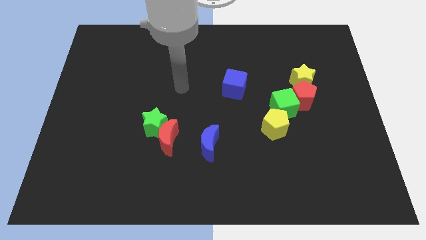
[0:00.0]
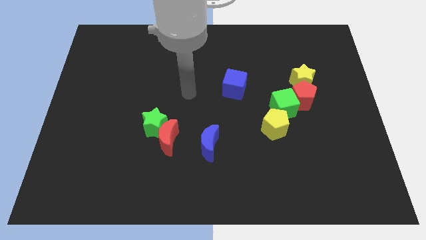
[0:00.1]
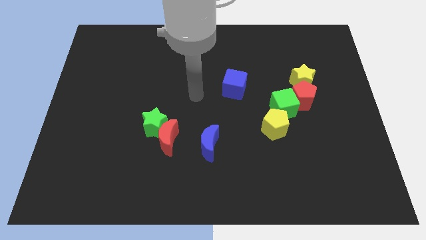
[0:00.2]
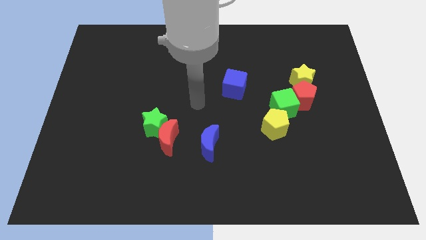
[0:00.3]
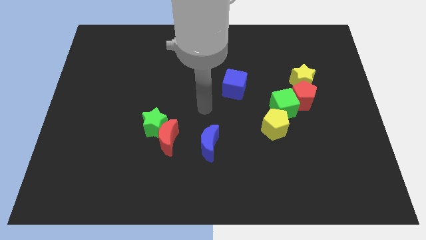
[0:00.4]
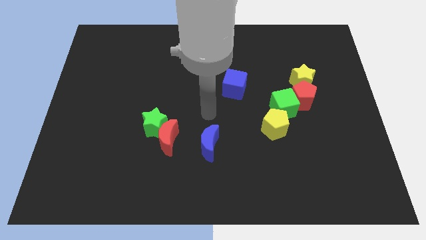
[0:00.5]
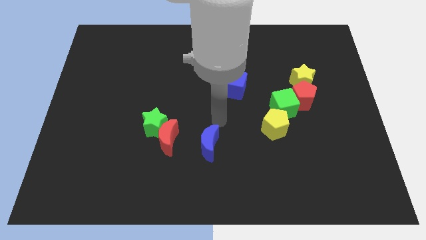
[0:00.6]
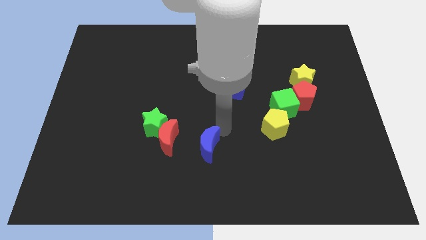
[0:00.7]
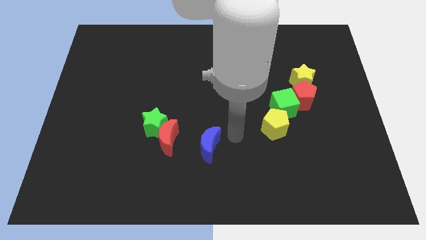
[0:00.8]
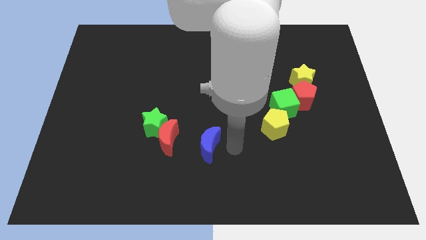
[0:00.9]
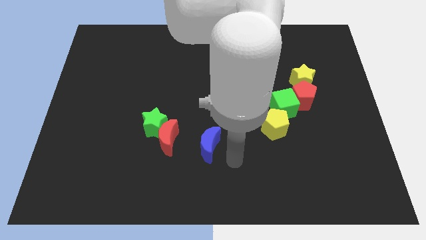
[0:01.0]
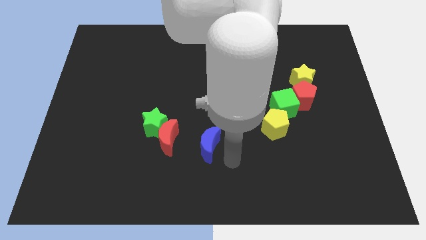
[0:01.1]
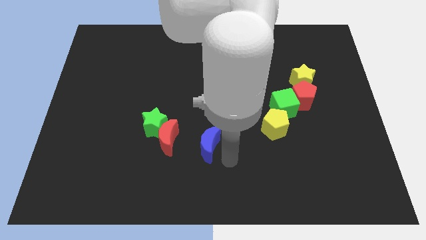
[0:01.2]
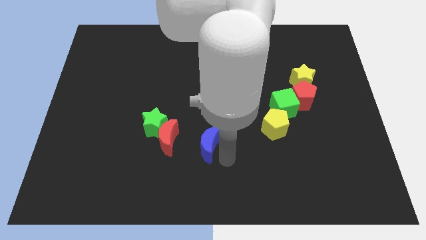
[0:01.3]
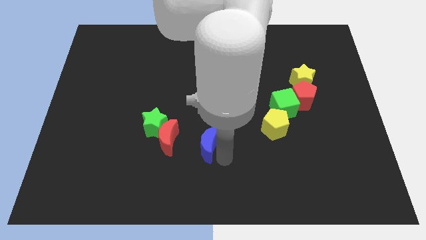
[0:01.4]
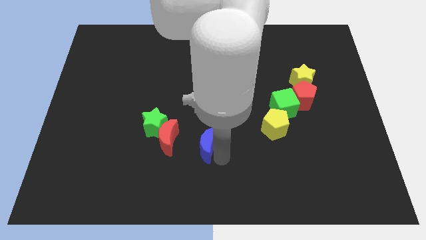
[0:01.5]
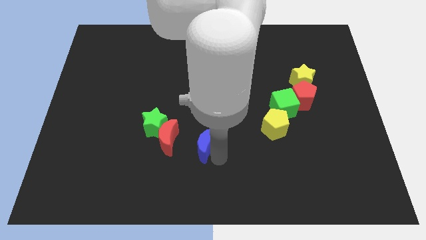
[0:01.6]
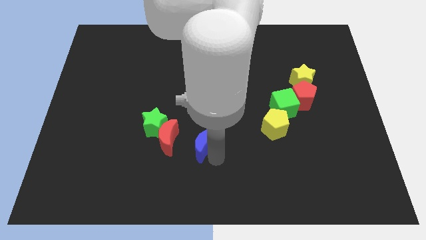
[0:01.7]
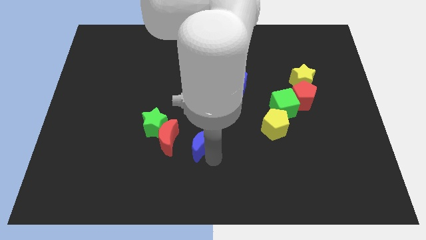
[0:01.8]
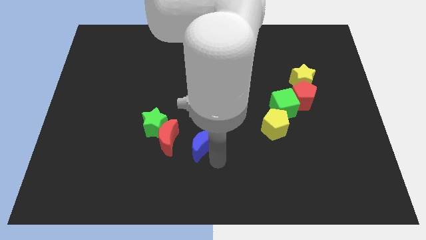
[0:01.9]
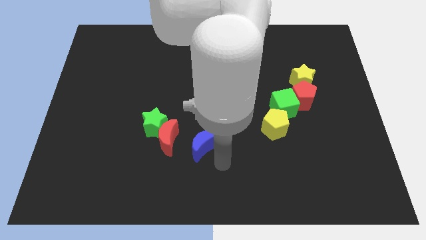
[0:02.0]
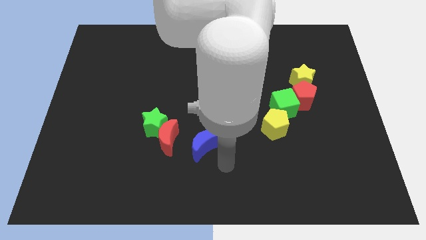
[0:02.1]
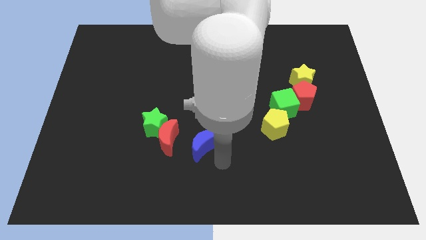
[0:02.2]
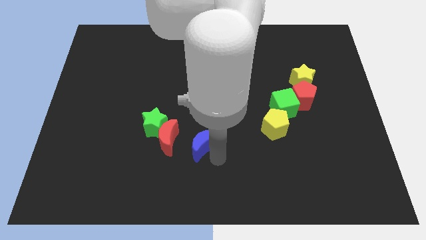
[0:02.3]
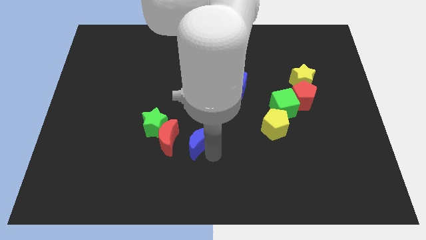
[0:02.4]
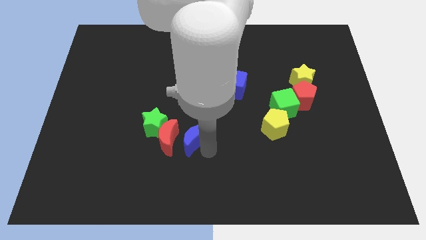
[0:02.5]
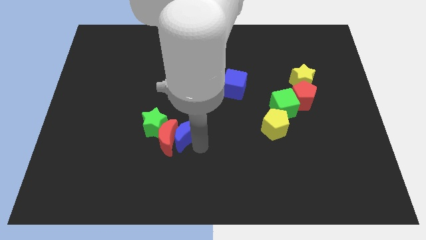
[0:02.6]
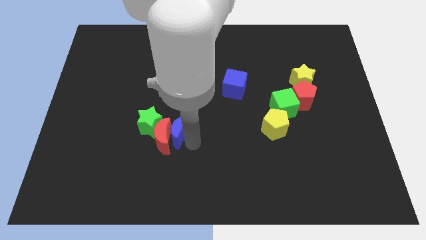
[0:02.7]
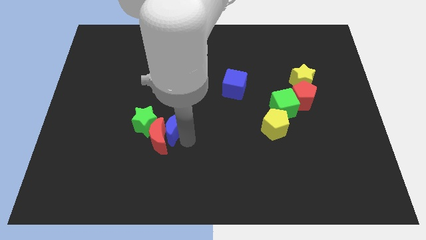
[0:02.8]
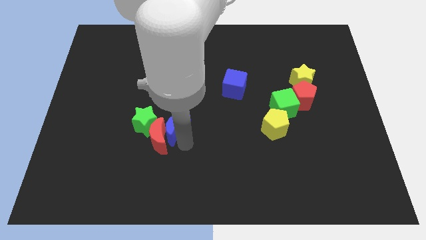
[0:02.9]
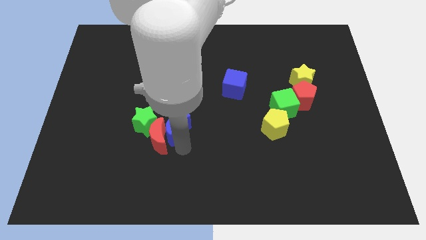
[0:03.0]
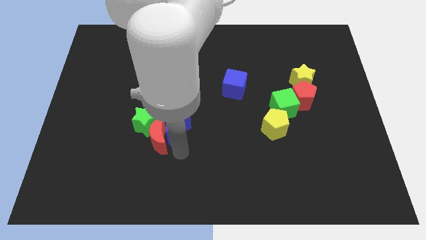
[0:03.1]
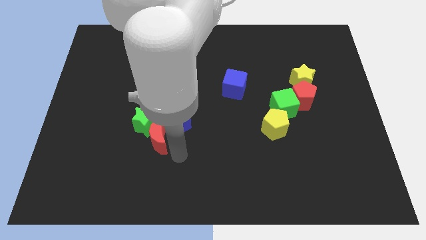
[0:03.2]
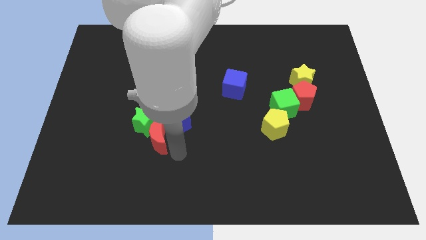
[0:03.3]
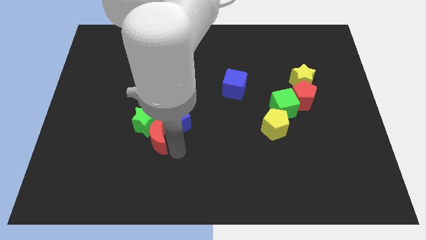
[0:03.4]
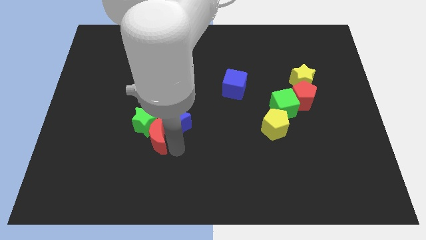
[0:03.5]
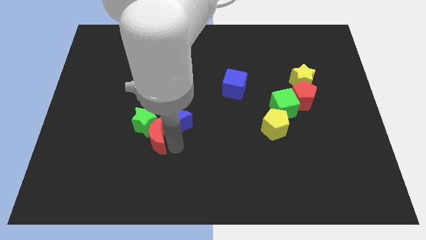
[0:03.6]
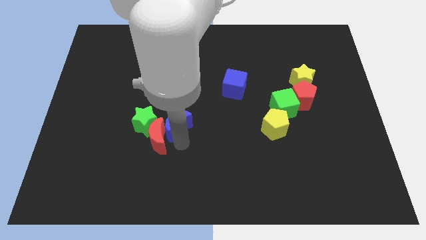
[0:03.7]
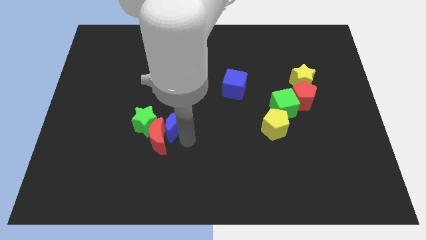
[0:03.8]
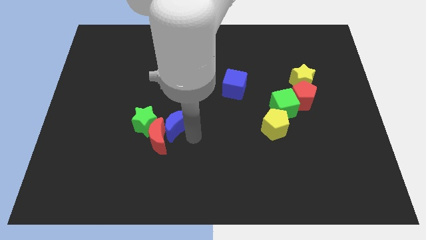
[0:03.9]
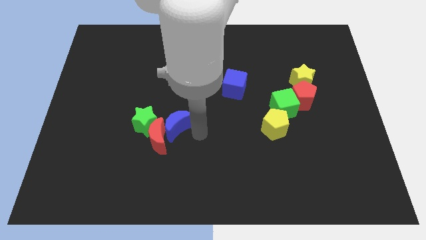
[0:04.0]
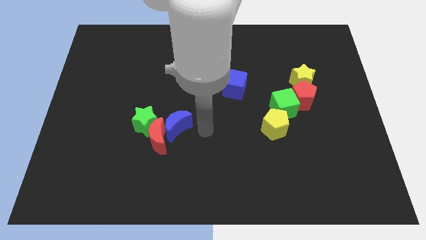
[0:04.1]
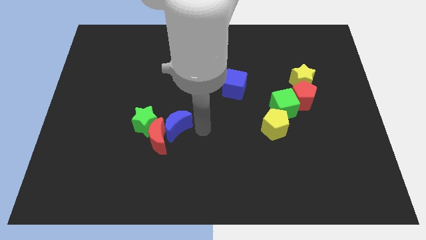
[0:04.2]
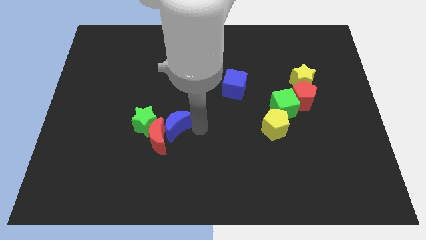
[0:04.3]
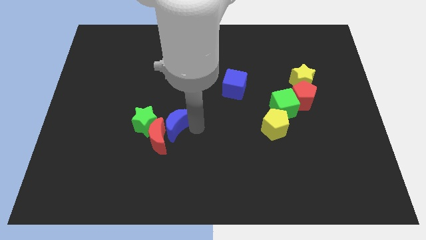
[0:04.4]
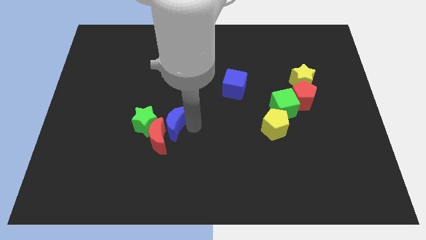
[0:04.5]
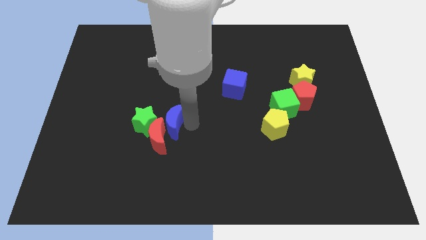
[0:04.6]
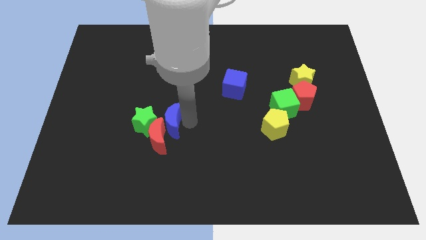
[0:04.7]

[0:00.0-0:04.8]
push the blue moon close to the green star

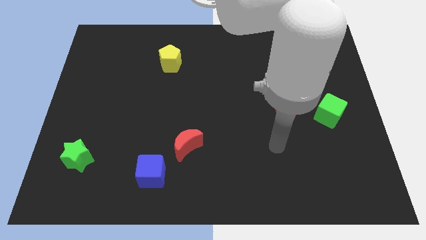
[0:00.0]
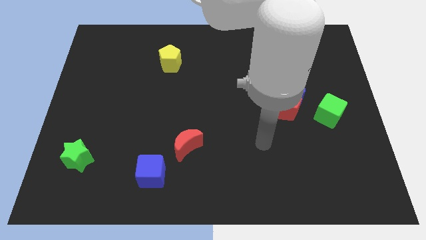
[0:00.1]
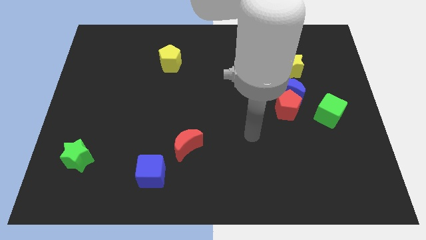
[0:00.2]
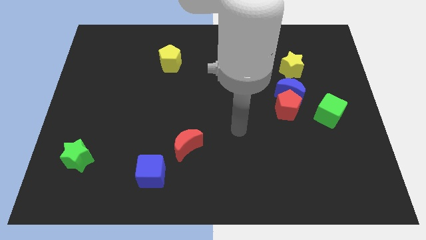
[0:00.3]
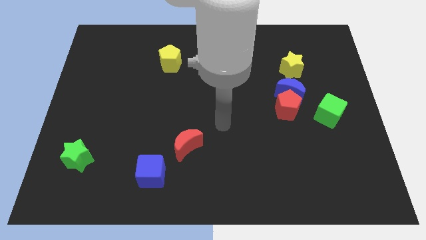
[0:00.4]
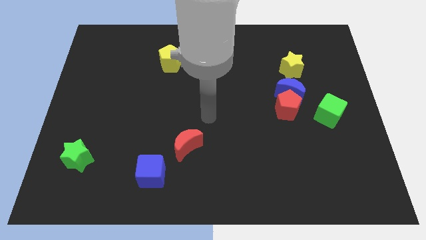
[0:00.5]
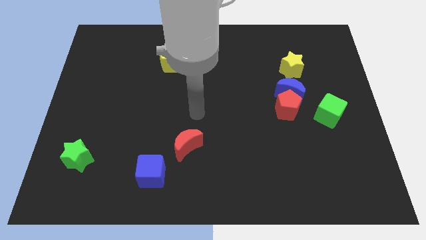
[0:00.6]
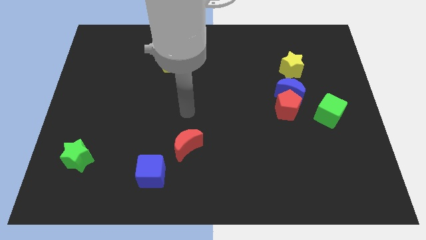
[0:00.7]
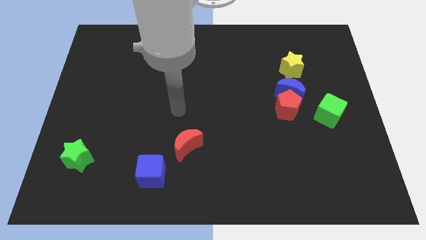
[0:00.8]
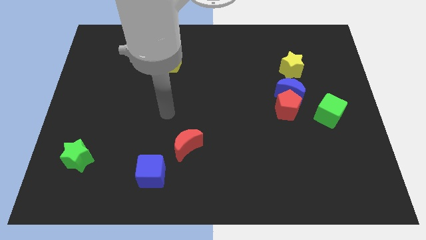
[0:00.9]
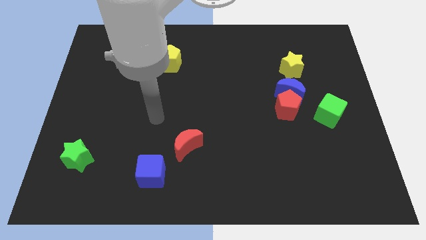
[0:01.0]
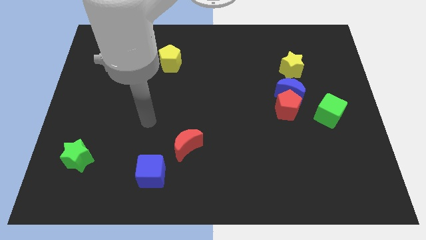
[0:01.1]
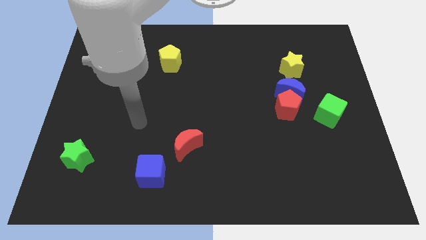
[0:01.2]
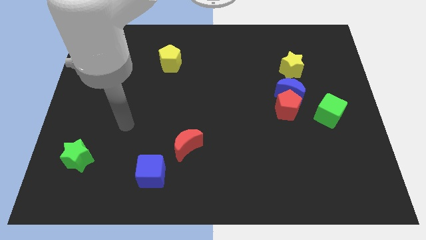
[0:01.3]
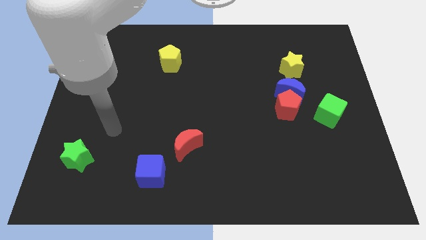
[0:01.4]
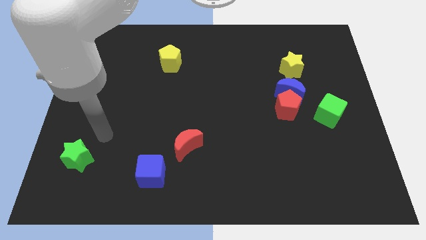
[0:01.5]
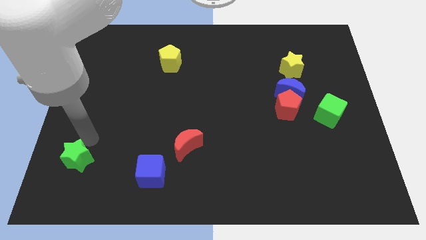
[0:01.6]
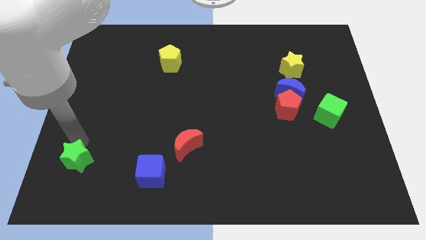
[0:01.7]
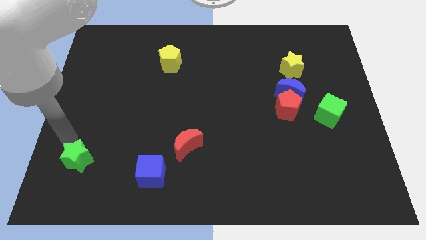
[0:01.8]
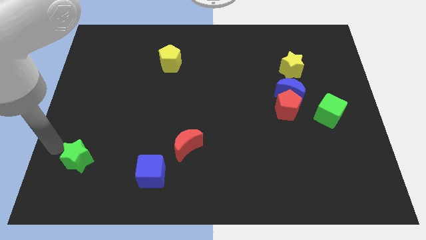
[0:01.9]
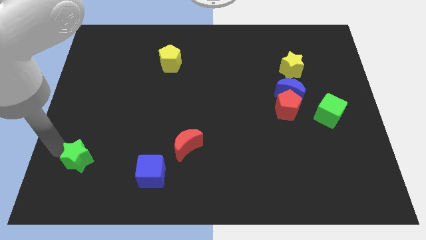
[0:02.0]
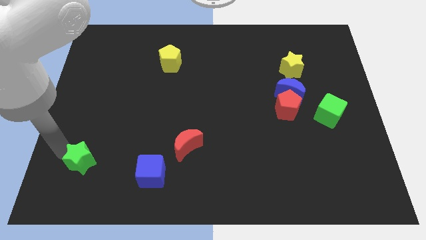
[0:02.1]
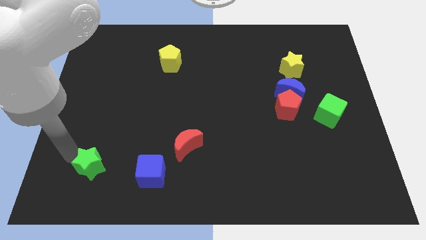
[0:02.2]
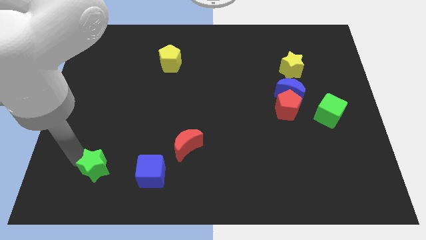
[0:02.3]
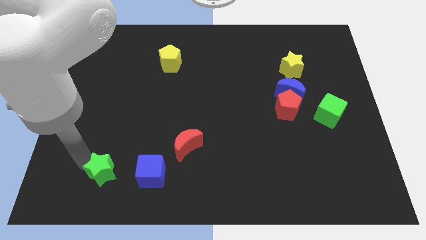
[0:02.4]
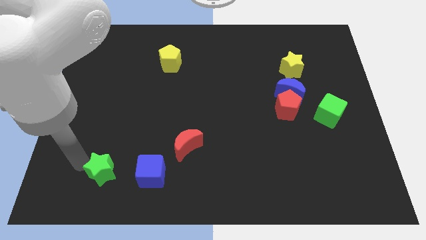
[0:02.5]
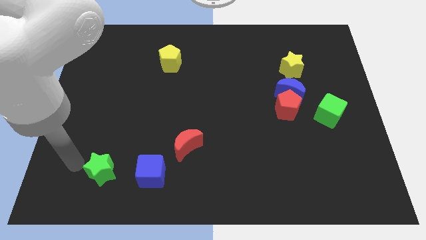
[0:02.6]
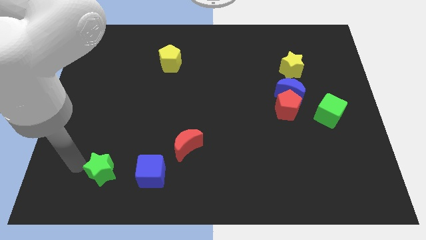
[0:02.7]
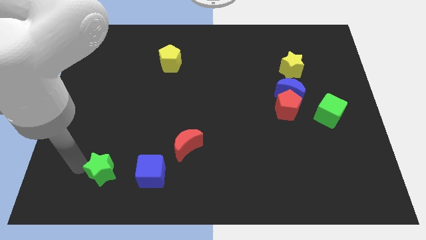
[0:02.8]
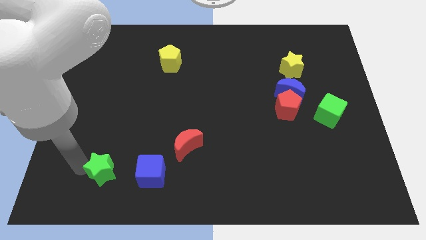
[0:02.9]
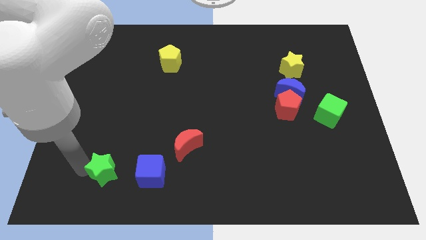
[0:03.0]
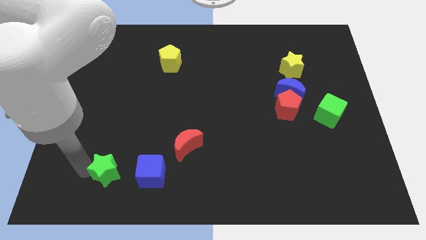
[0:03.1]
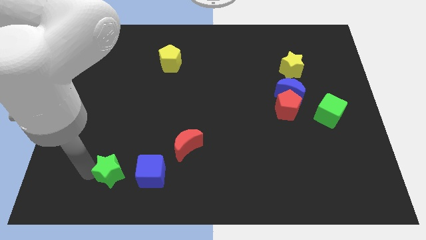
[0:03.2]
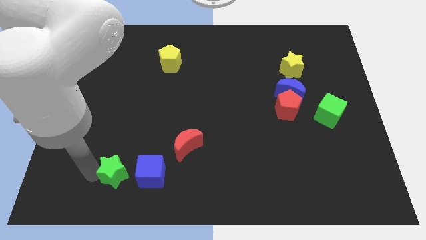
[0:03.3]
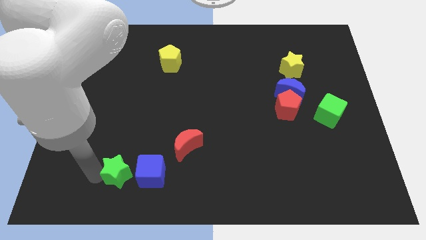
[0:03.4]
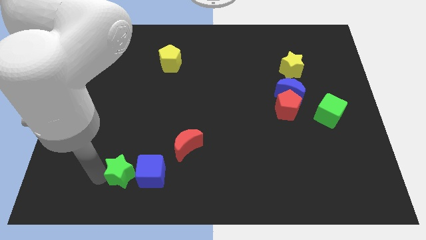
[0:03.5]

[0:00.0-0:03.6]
put the green star next to the blue cube
